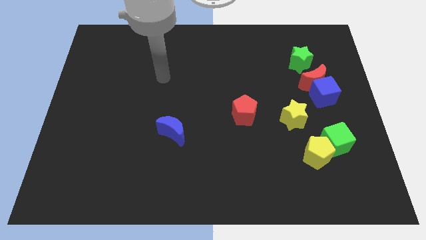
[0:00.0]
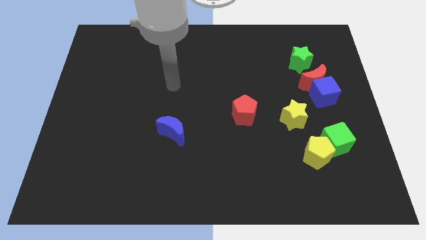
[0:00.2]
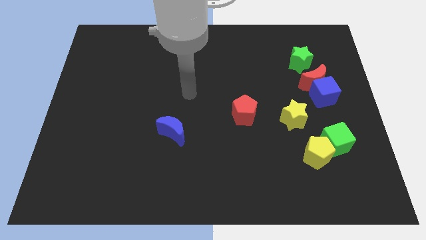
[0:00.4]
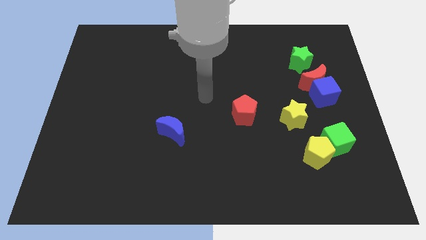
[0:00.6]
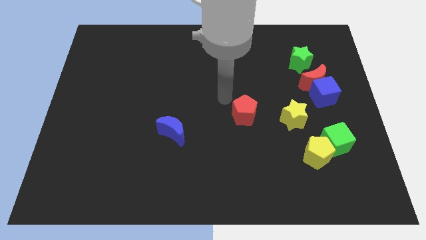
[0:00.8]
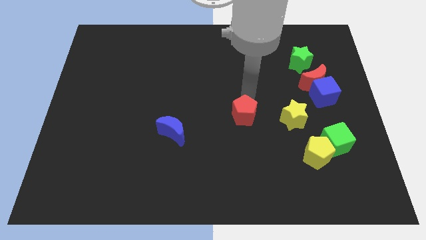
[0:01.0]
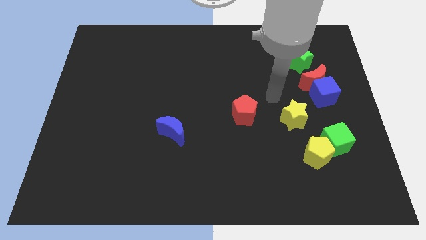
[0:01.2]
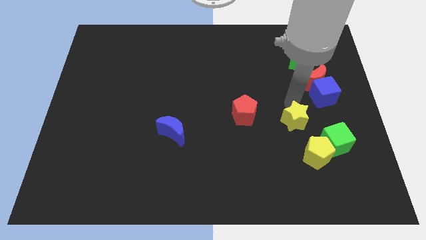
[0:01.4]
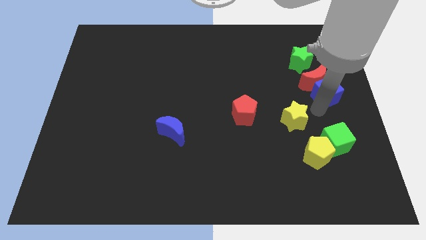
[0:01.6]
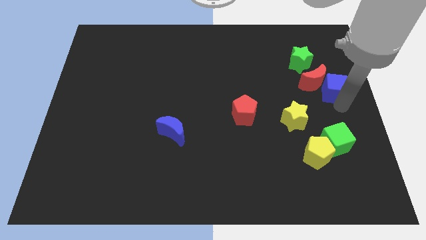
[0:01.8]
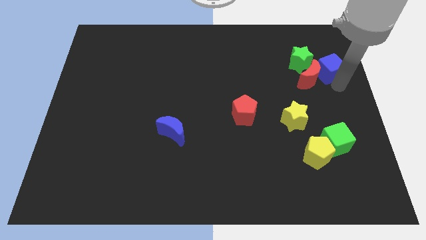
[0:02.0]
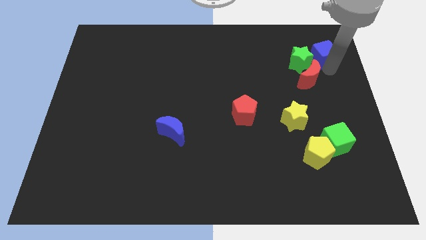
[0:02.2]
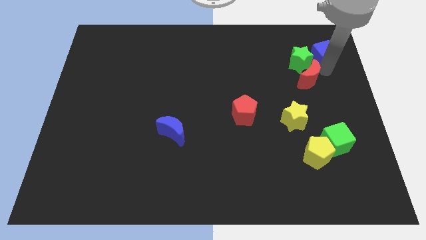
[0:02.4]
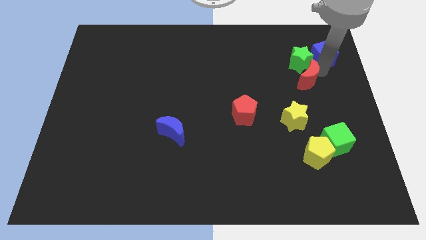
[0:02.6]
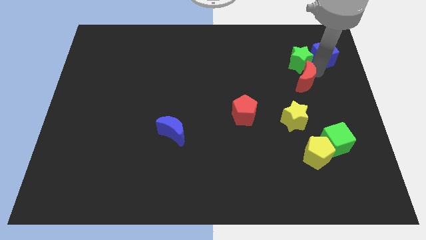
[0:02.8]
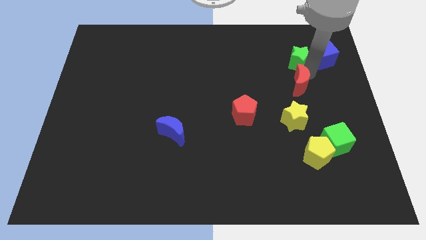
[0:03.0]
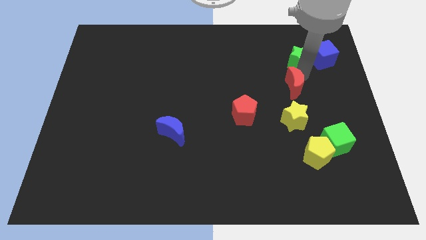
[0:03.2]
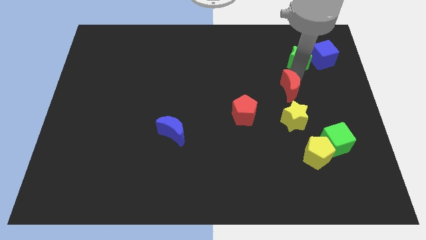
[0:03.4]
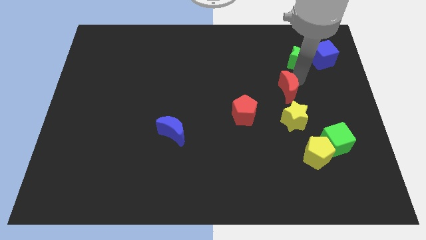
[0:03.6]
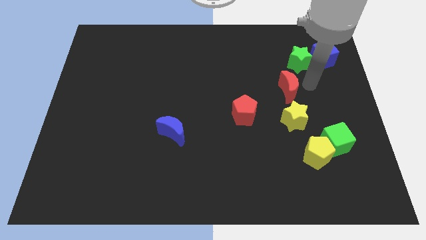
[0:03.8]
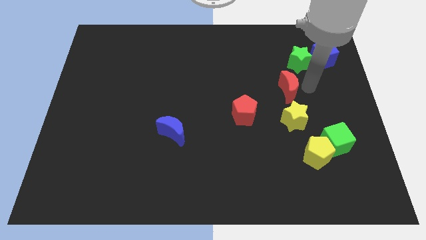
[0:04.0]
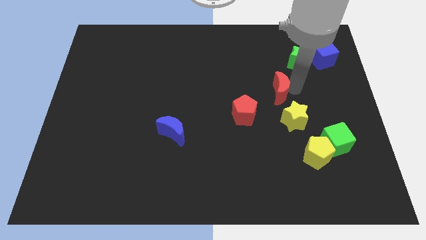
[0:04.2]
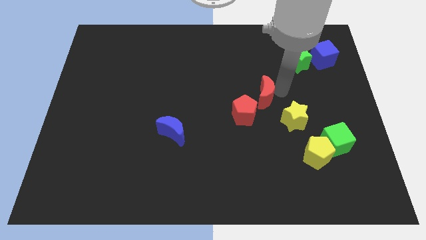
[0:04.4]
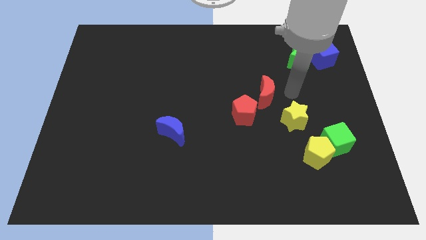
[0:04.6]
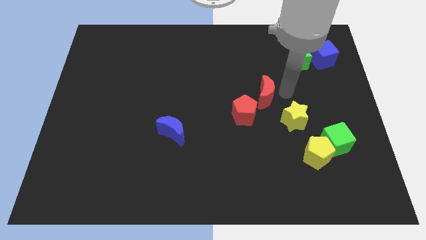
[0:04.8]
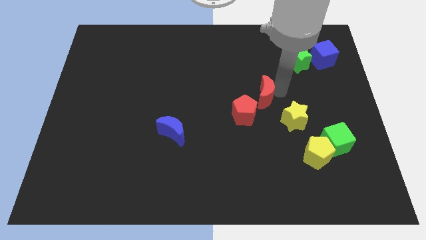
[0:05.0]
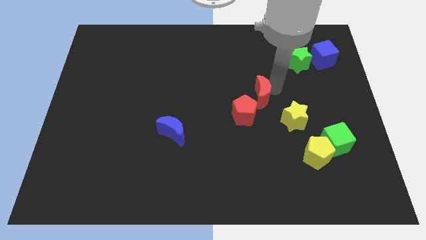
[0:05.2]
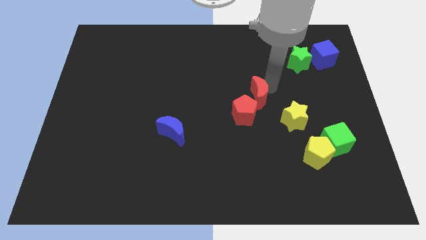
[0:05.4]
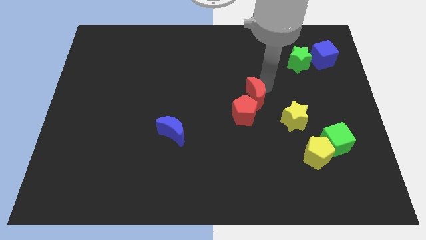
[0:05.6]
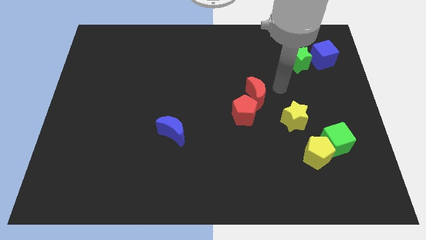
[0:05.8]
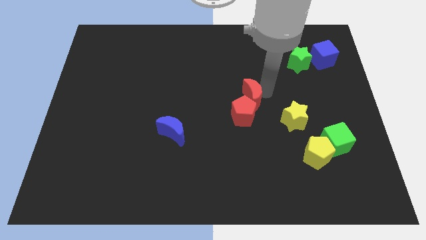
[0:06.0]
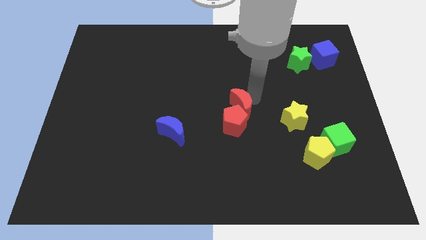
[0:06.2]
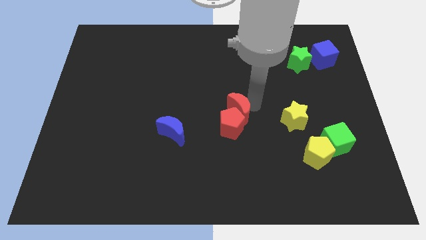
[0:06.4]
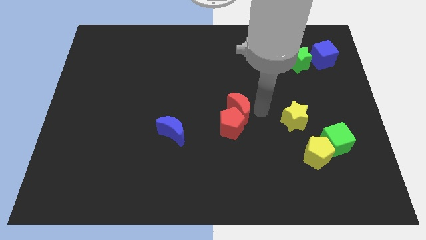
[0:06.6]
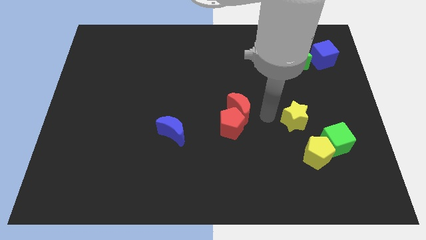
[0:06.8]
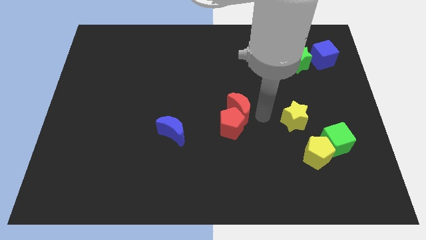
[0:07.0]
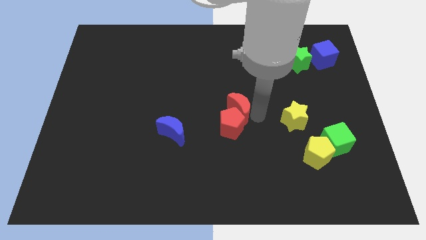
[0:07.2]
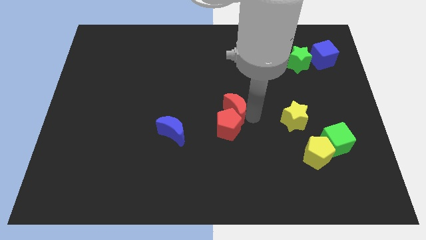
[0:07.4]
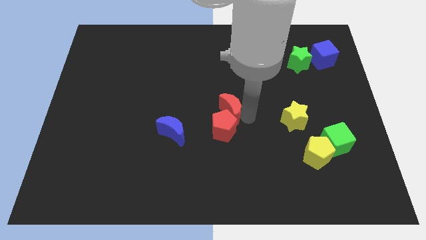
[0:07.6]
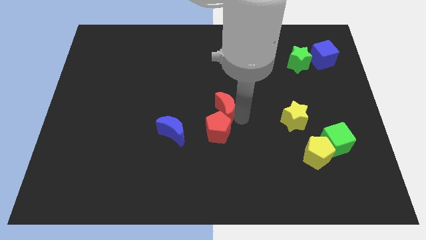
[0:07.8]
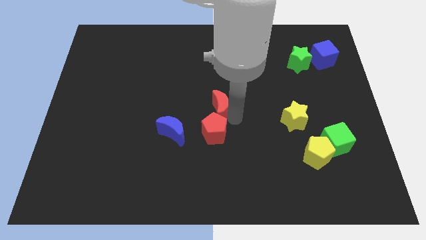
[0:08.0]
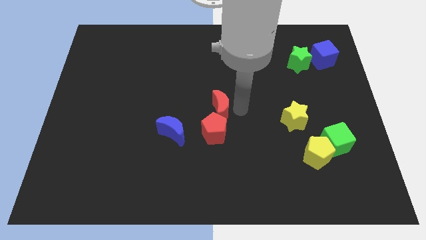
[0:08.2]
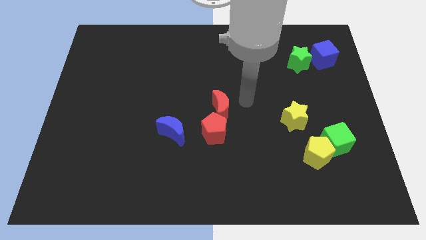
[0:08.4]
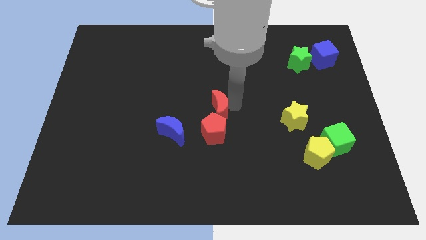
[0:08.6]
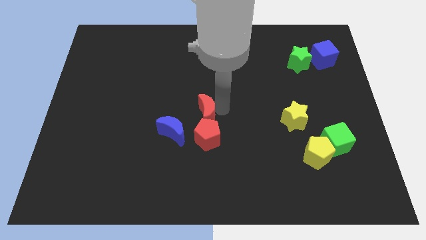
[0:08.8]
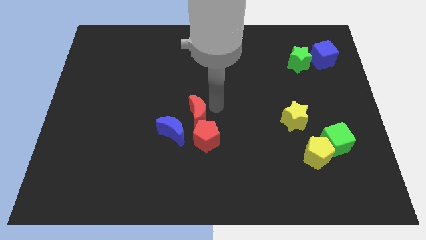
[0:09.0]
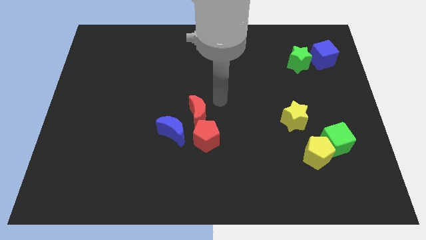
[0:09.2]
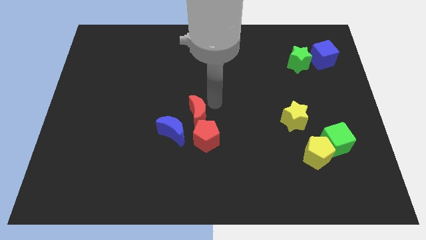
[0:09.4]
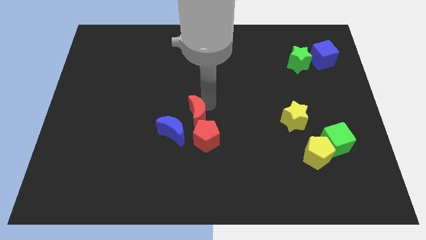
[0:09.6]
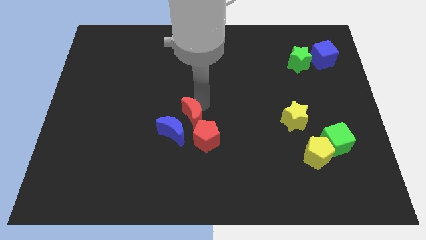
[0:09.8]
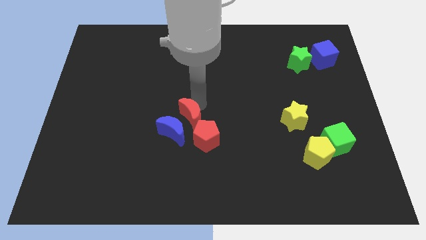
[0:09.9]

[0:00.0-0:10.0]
slide the red moon close to the blue moon

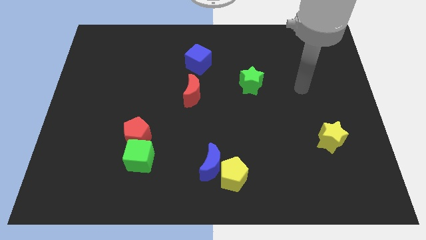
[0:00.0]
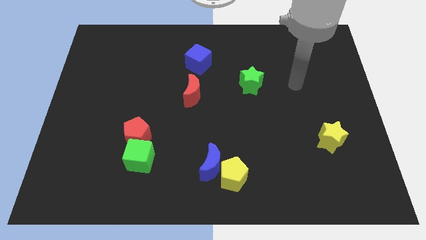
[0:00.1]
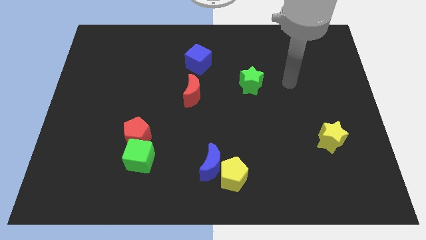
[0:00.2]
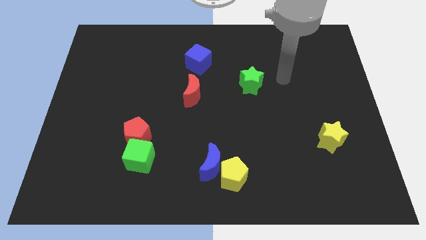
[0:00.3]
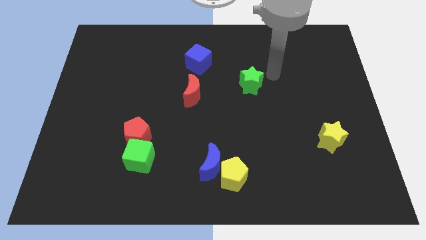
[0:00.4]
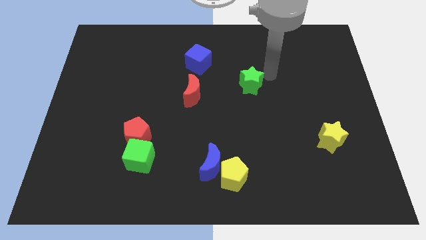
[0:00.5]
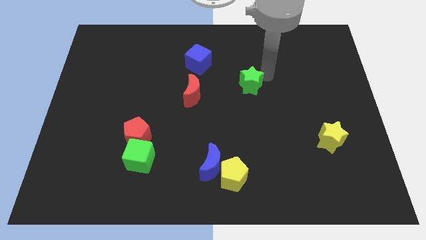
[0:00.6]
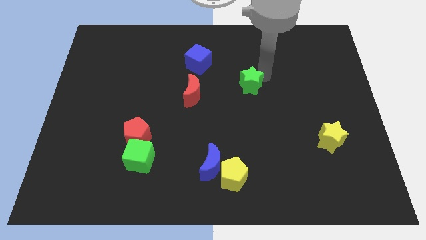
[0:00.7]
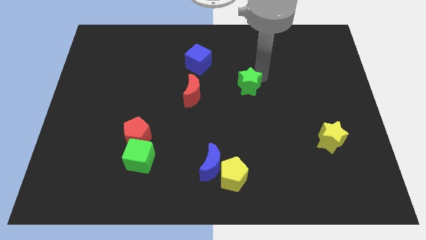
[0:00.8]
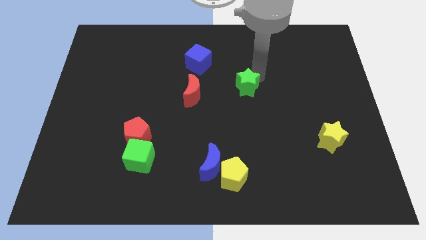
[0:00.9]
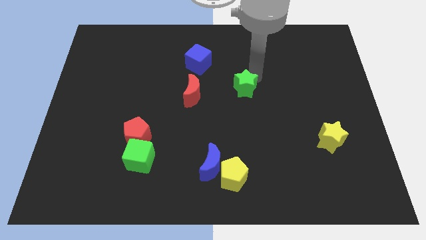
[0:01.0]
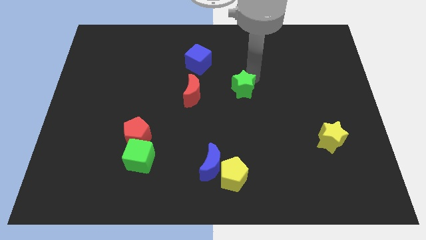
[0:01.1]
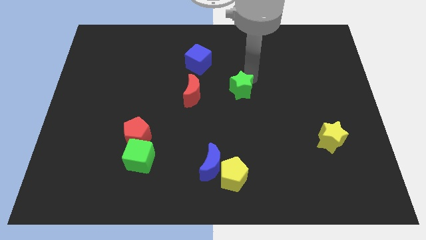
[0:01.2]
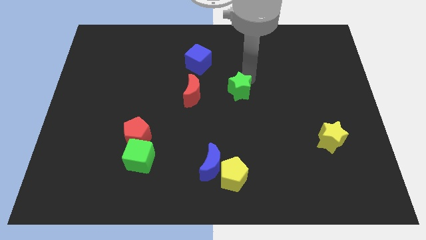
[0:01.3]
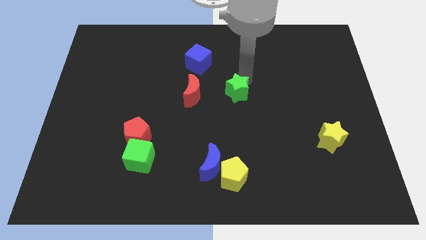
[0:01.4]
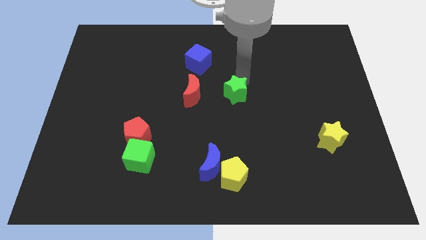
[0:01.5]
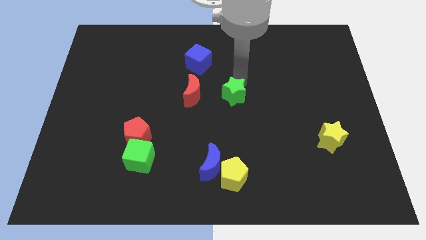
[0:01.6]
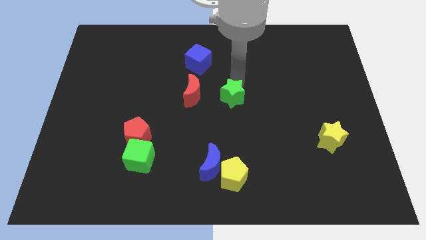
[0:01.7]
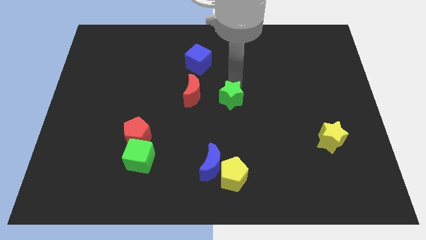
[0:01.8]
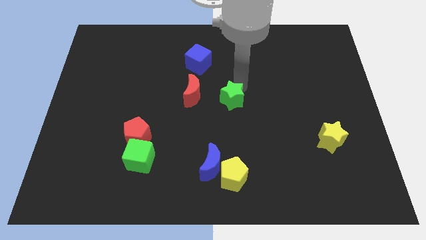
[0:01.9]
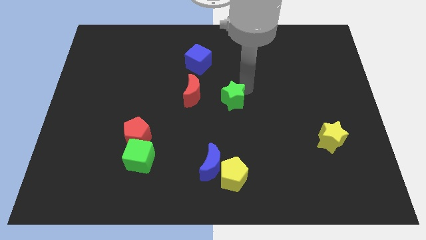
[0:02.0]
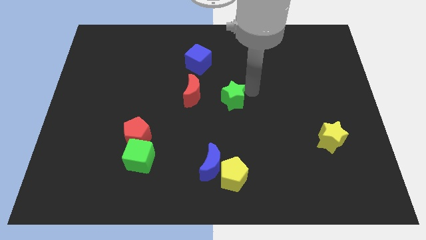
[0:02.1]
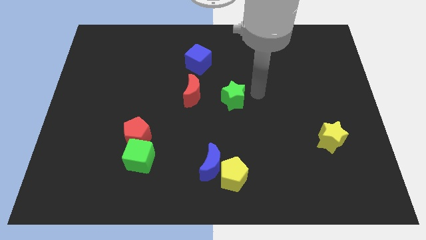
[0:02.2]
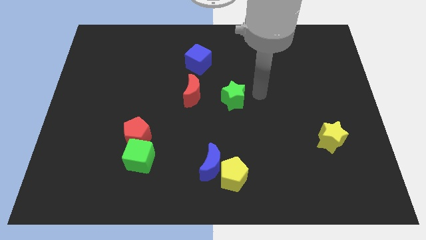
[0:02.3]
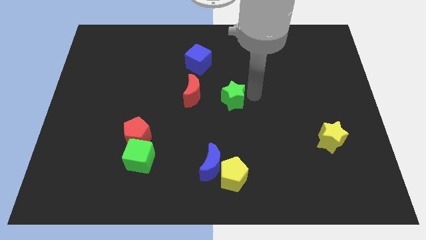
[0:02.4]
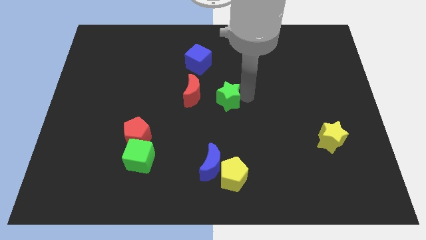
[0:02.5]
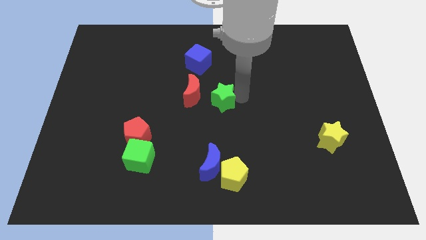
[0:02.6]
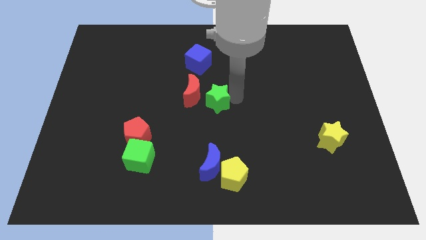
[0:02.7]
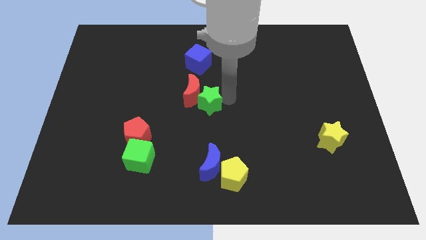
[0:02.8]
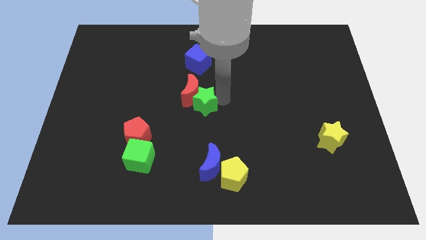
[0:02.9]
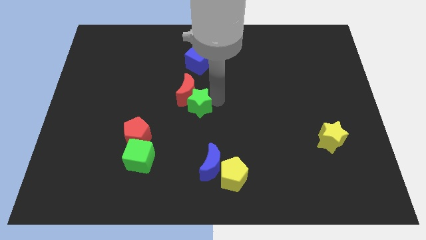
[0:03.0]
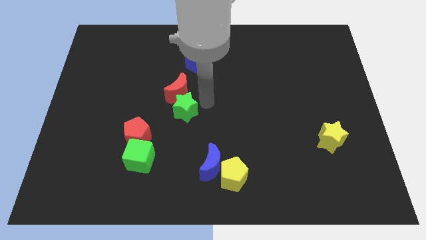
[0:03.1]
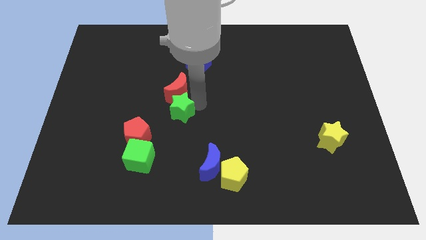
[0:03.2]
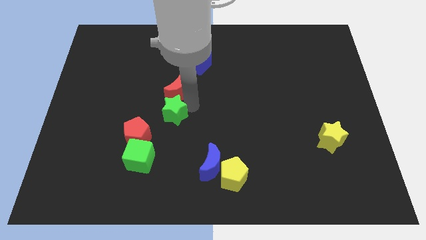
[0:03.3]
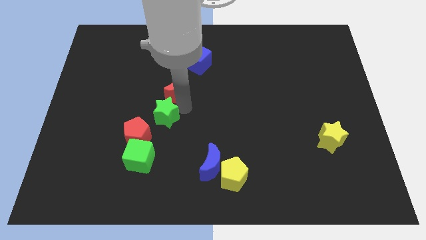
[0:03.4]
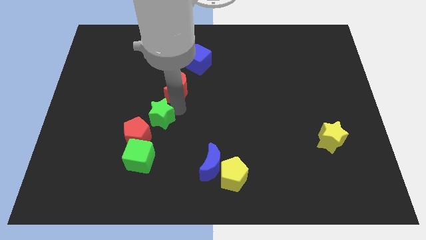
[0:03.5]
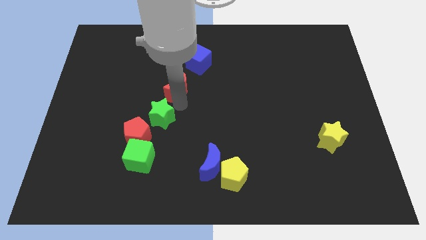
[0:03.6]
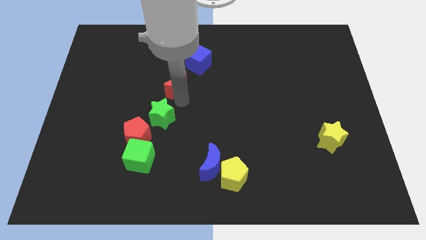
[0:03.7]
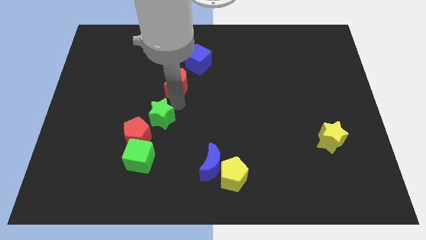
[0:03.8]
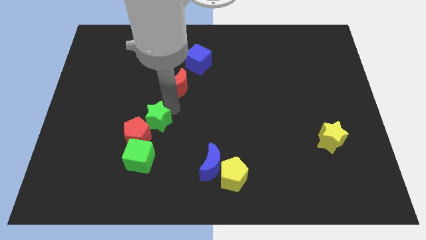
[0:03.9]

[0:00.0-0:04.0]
slide the green star to the red pentagon
